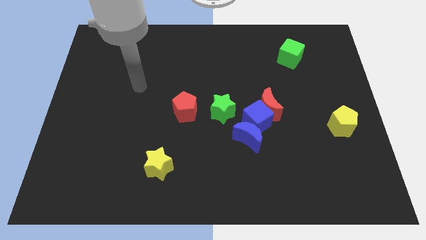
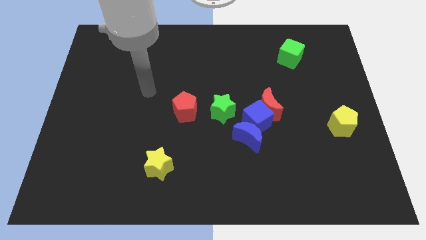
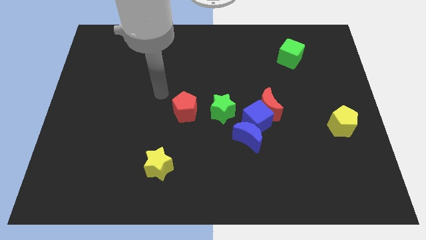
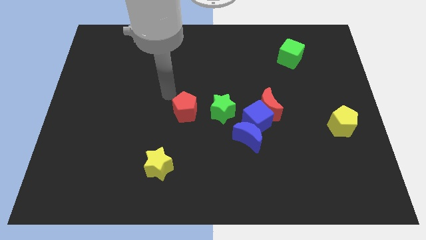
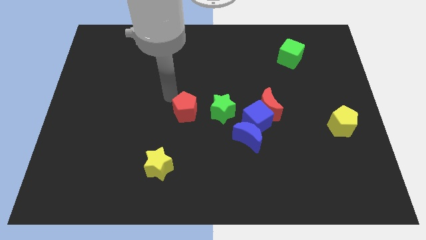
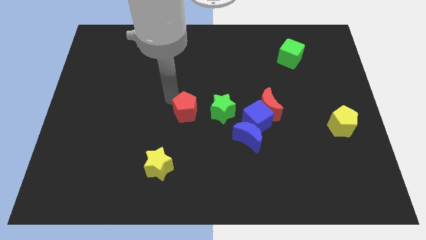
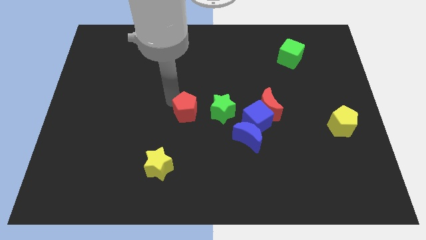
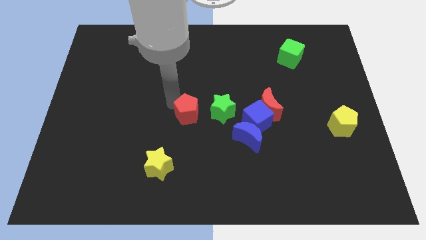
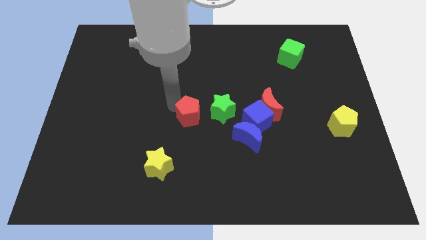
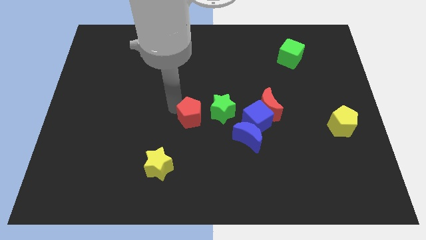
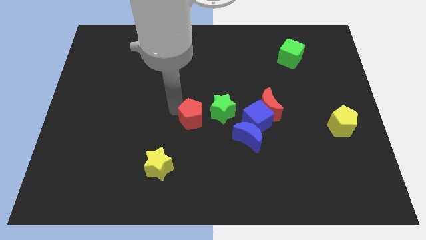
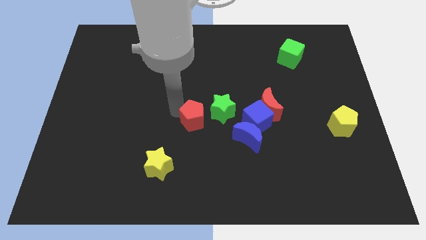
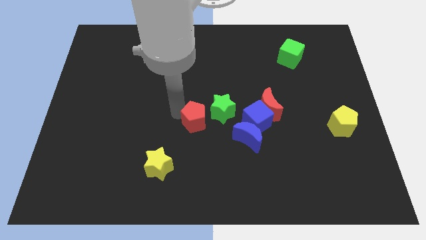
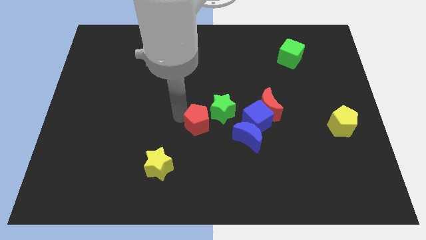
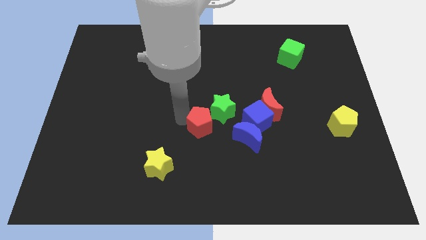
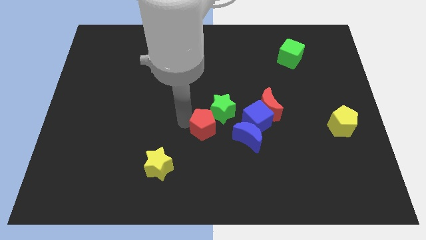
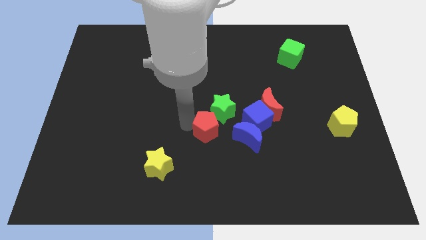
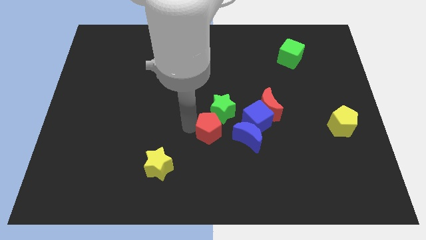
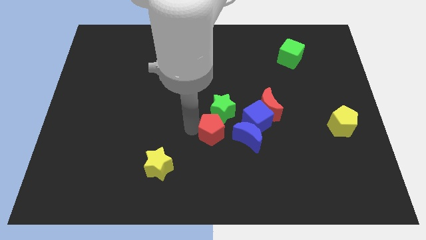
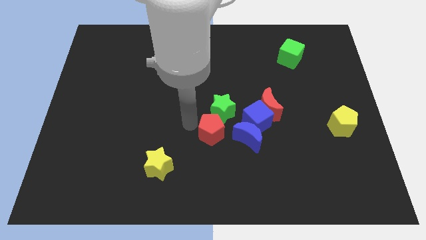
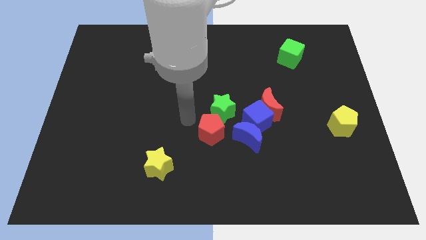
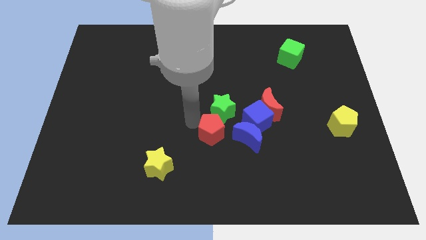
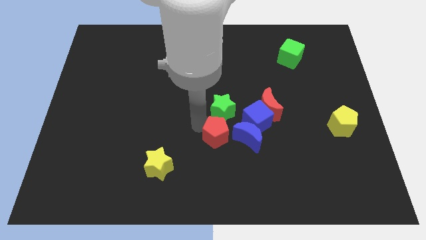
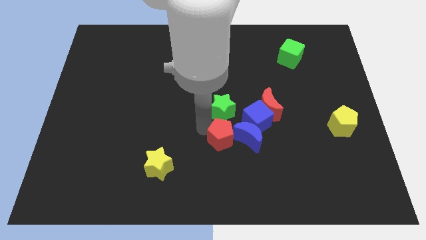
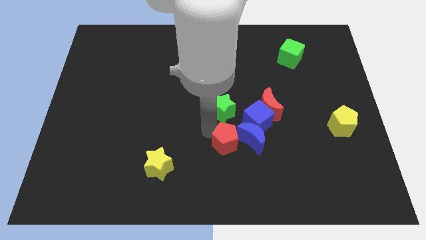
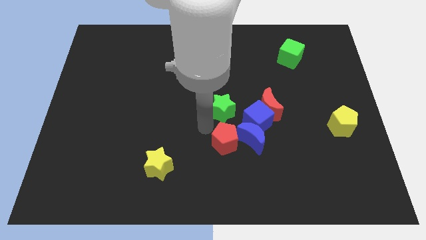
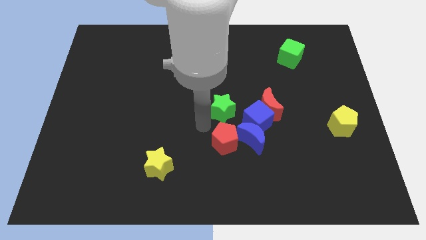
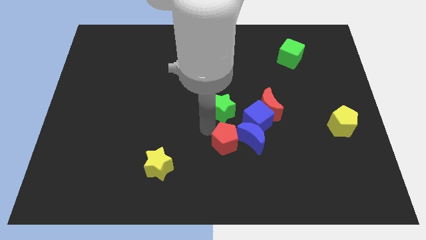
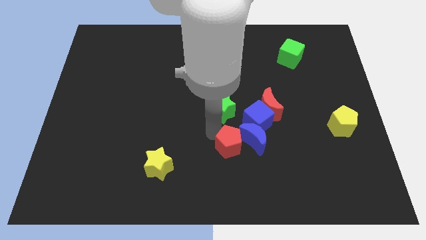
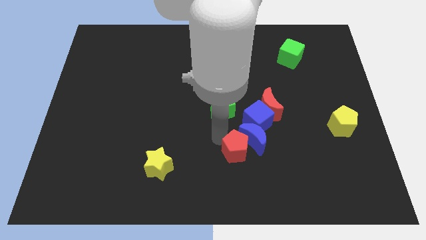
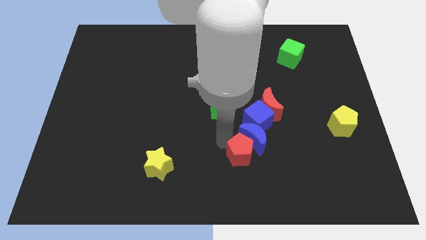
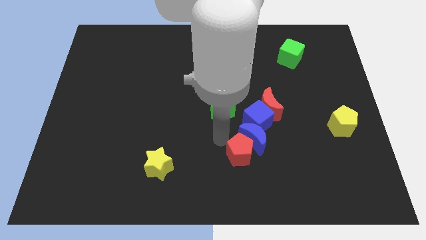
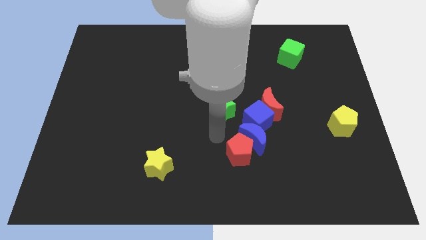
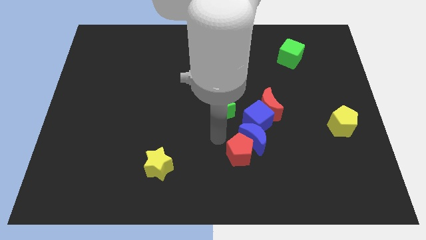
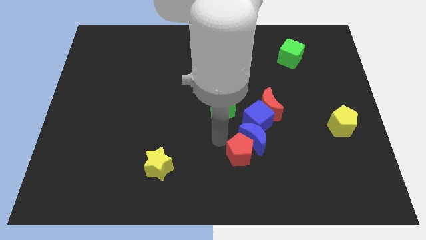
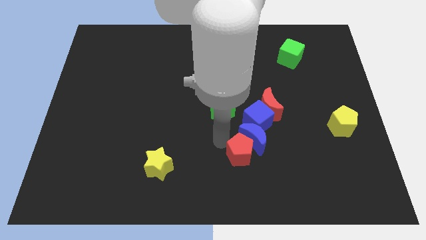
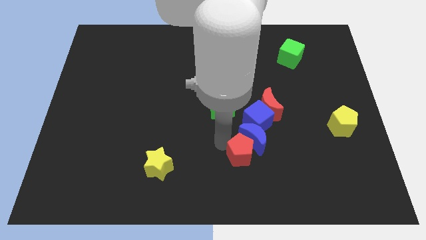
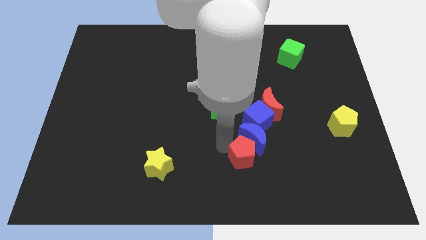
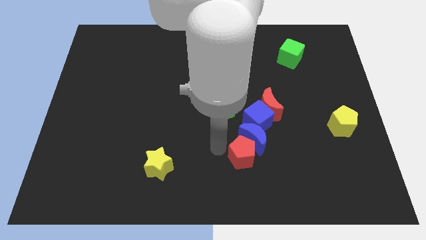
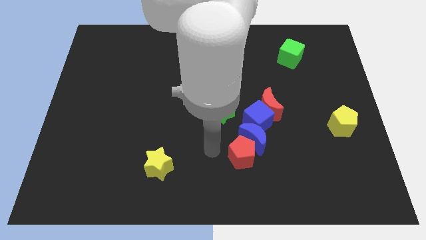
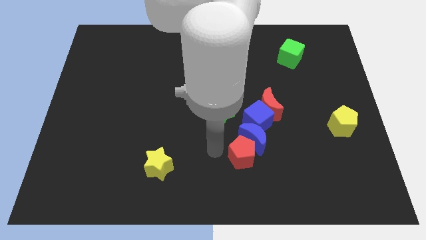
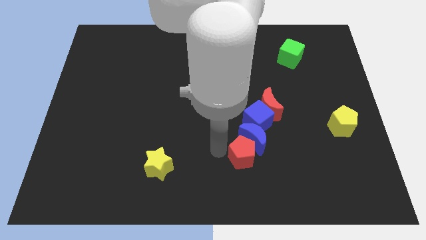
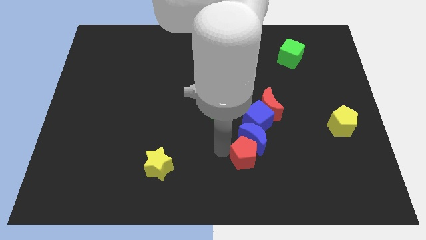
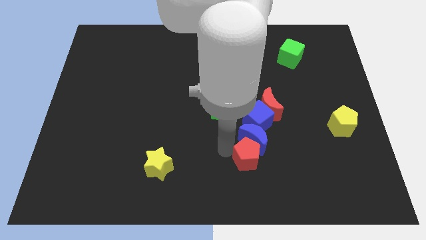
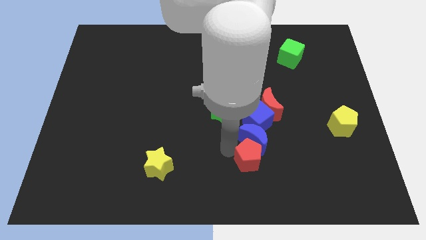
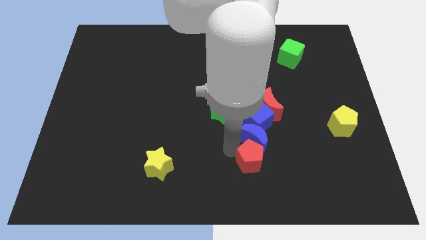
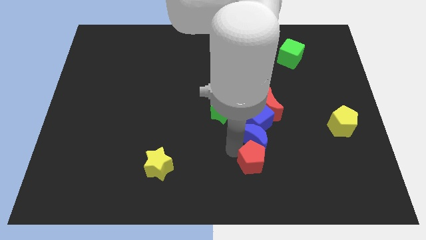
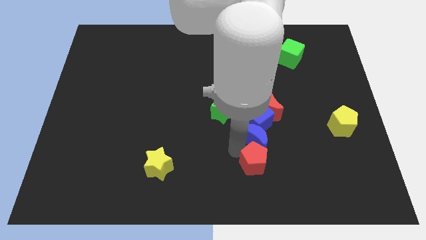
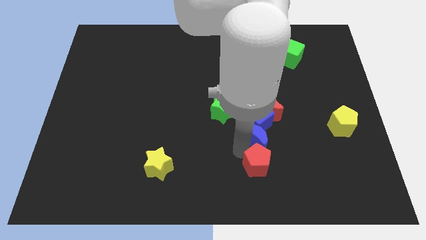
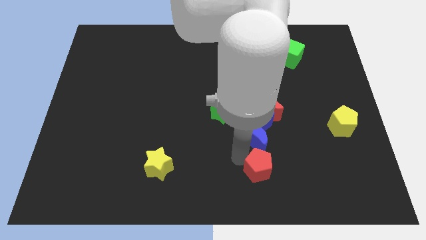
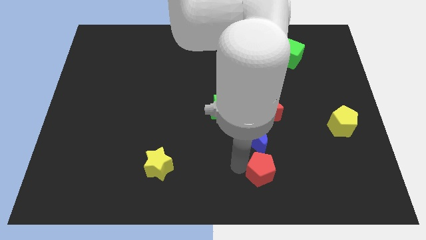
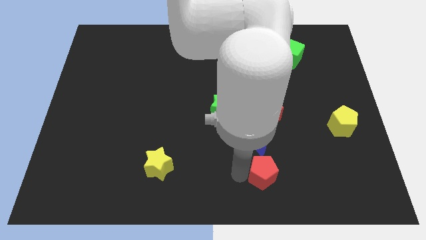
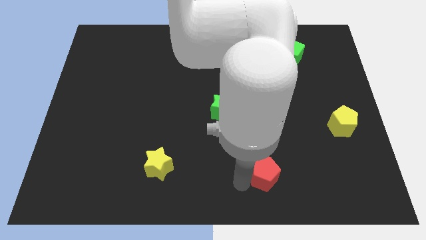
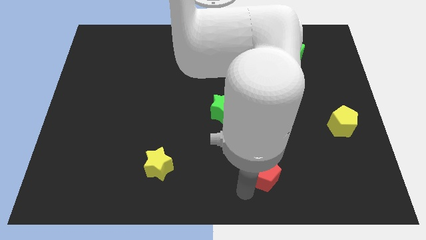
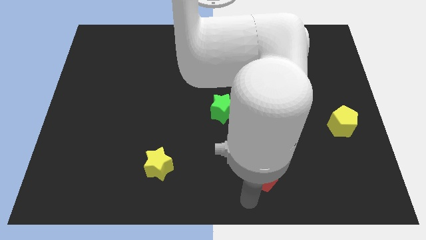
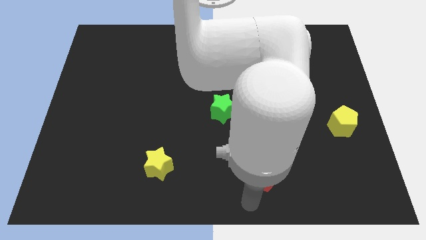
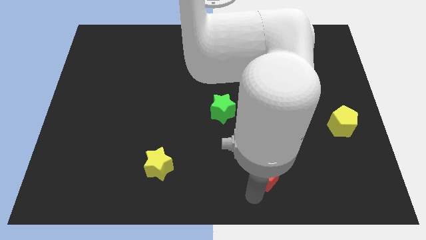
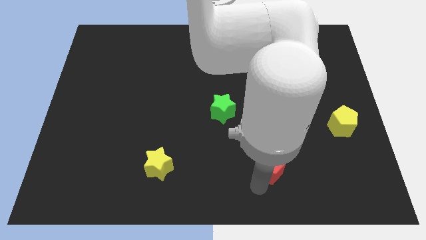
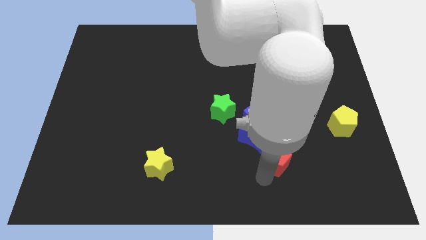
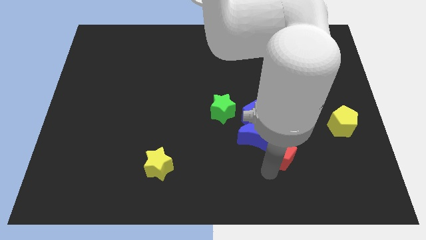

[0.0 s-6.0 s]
move the red pentagon to the bottom right of the blue cube
